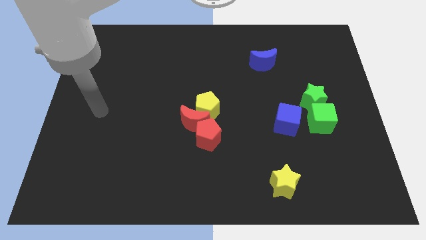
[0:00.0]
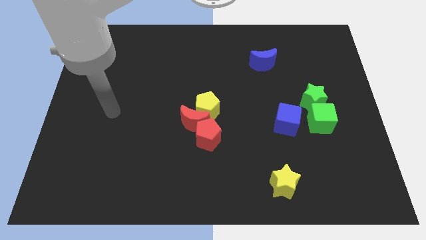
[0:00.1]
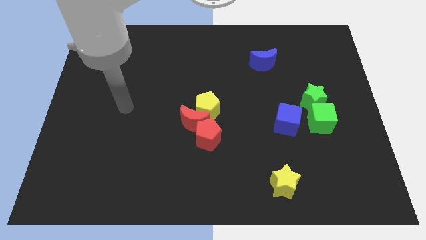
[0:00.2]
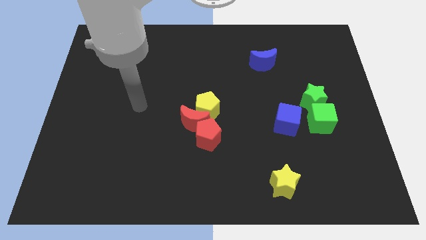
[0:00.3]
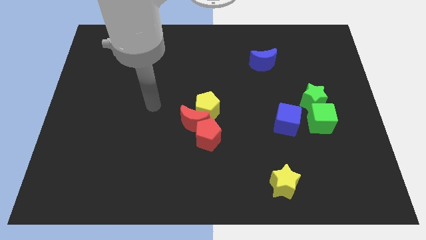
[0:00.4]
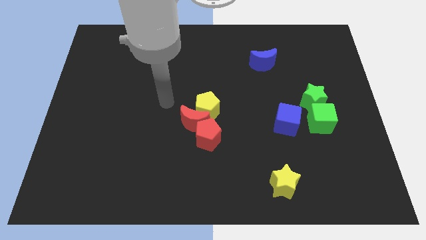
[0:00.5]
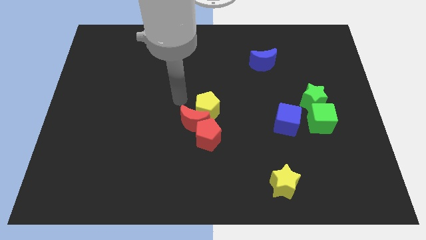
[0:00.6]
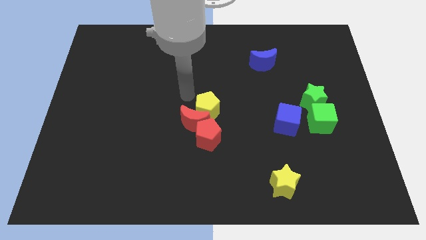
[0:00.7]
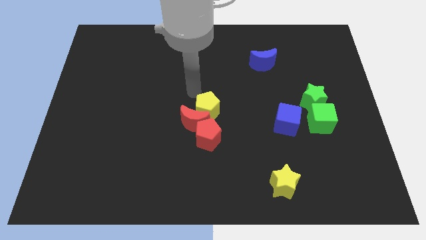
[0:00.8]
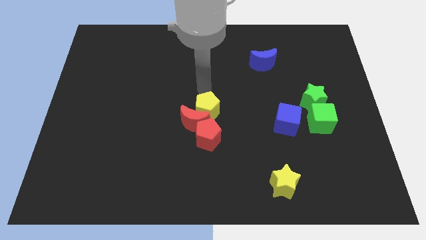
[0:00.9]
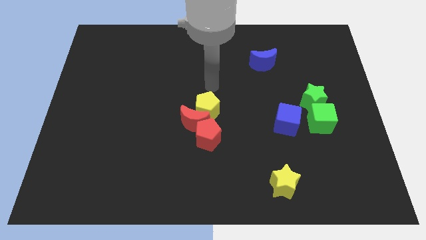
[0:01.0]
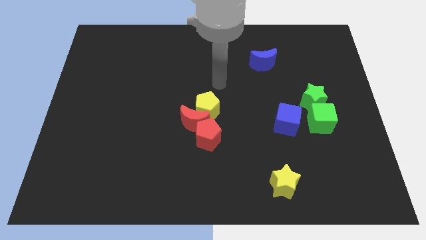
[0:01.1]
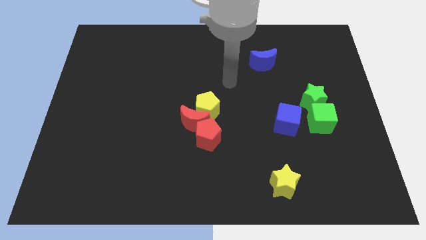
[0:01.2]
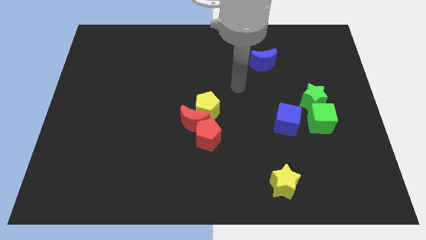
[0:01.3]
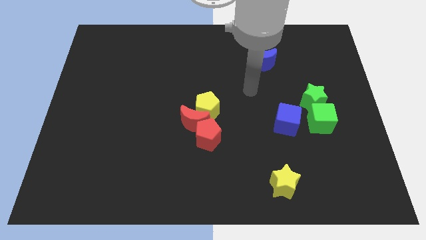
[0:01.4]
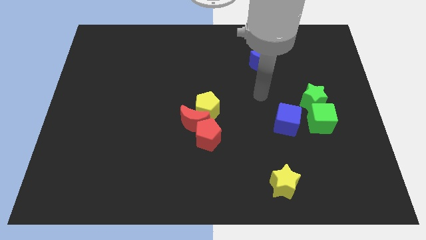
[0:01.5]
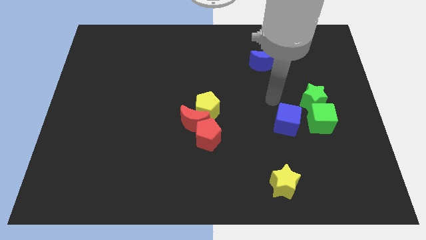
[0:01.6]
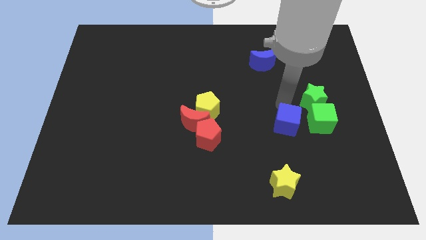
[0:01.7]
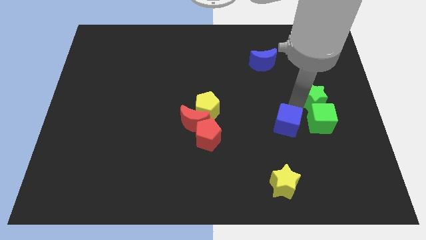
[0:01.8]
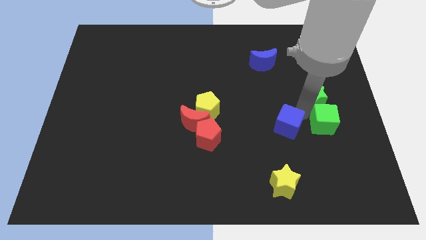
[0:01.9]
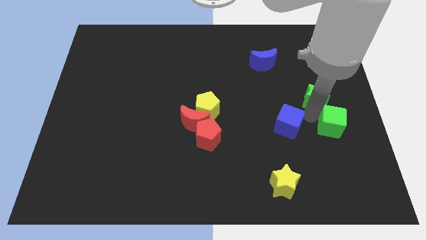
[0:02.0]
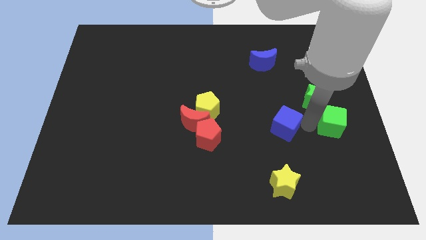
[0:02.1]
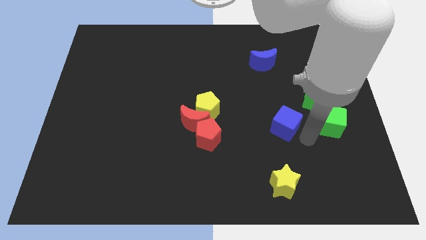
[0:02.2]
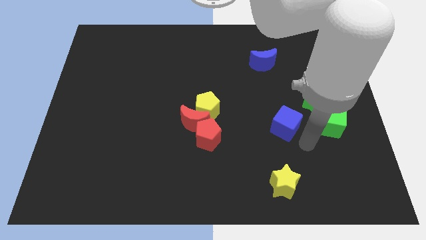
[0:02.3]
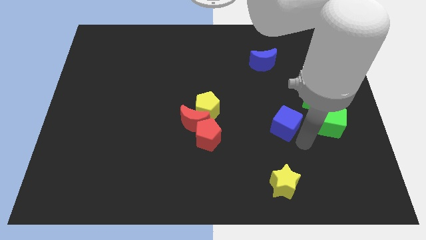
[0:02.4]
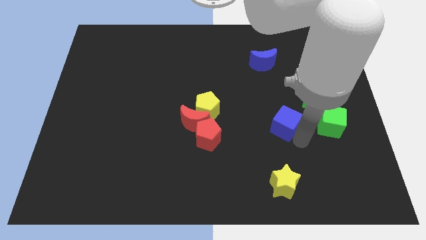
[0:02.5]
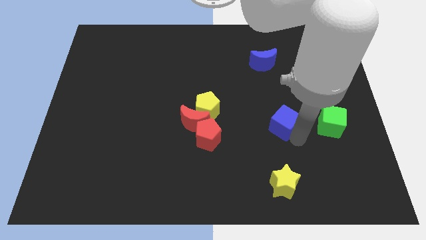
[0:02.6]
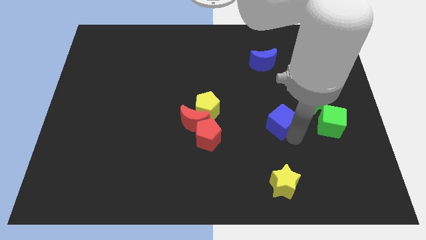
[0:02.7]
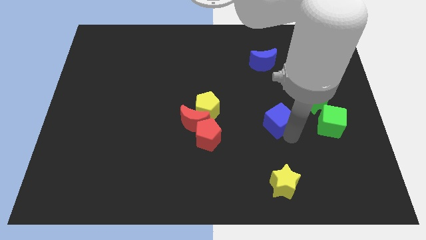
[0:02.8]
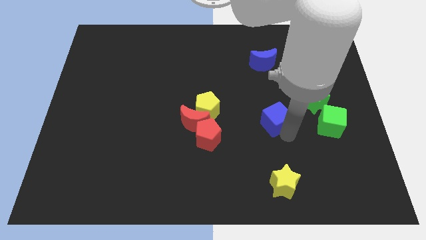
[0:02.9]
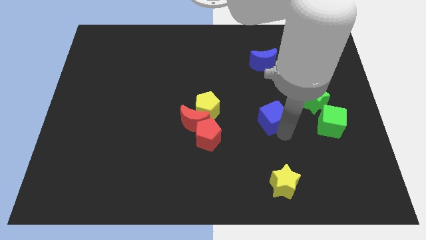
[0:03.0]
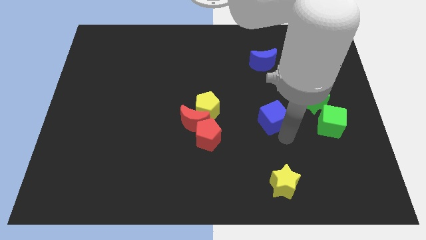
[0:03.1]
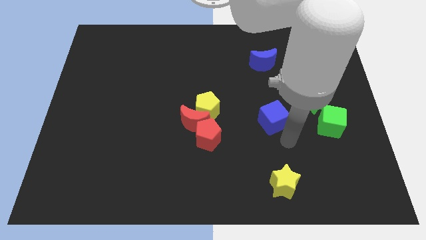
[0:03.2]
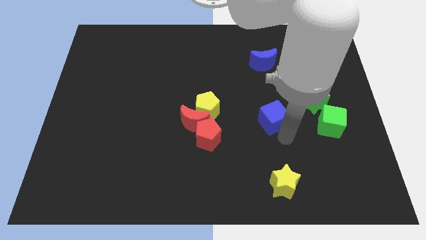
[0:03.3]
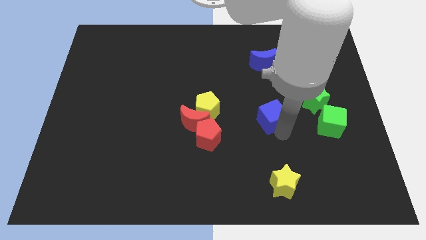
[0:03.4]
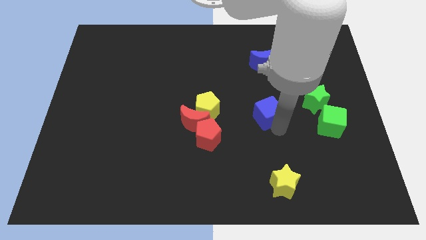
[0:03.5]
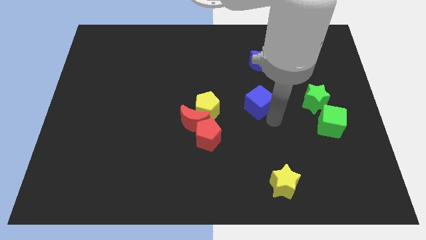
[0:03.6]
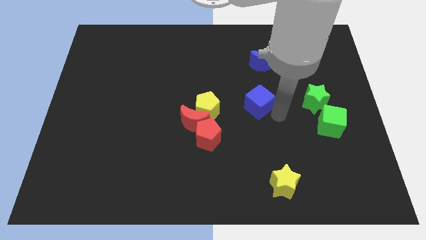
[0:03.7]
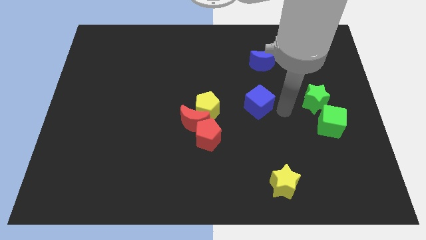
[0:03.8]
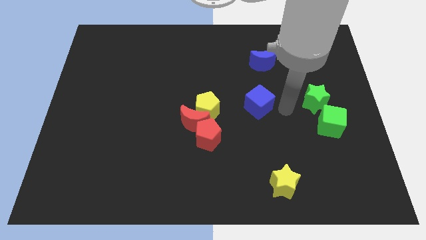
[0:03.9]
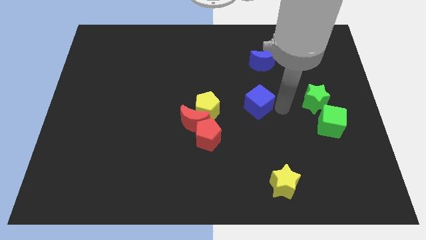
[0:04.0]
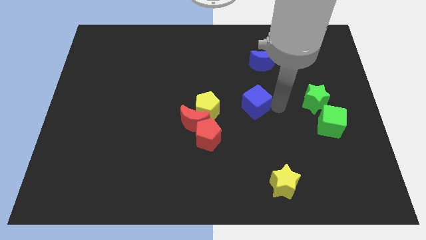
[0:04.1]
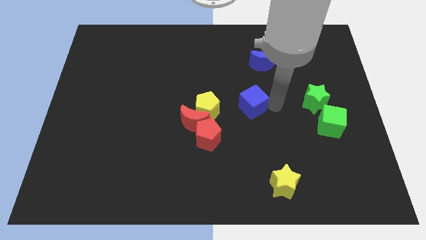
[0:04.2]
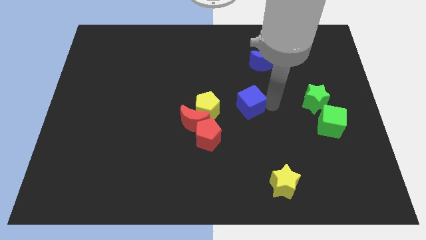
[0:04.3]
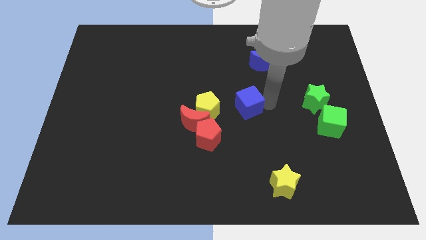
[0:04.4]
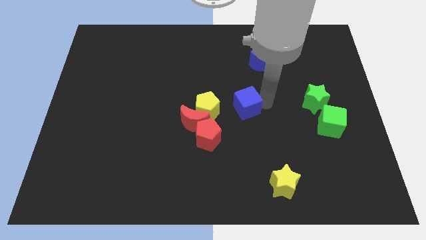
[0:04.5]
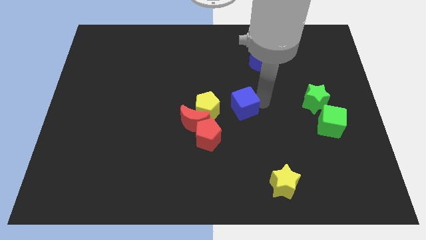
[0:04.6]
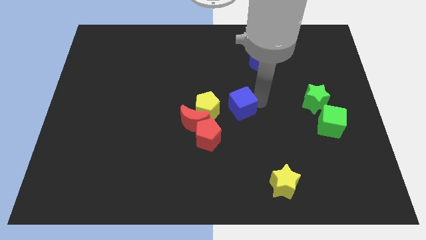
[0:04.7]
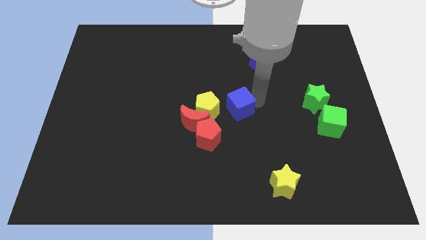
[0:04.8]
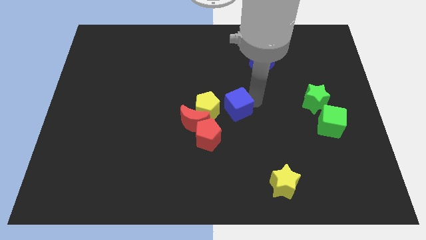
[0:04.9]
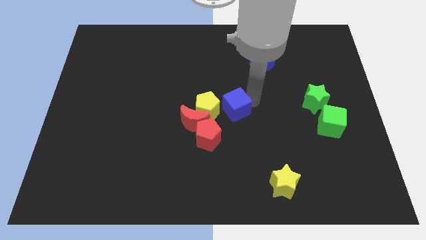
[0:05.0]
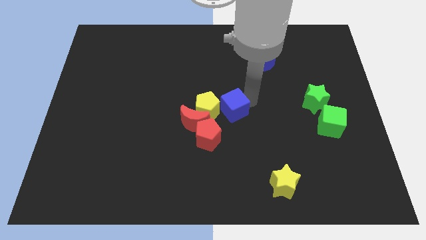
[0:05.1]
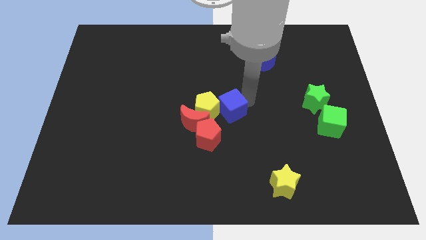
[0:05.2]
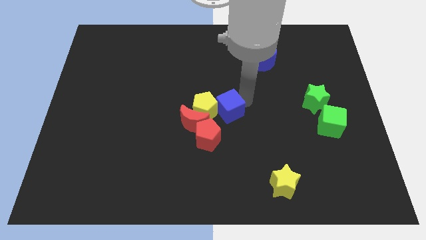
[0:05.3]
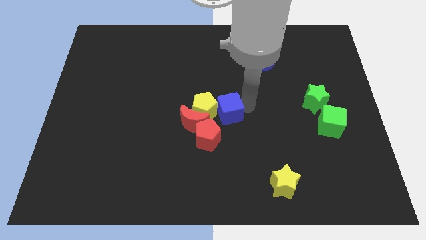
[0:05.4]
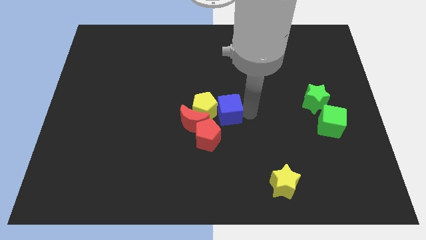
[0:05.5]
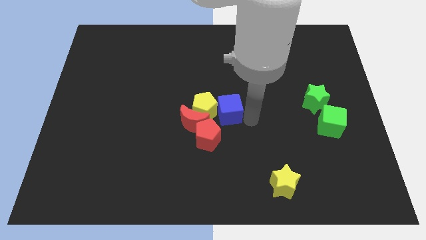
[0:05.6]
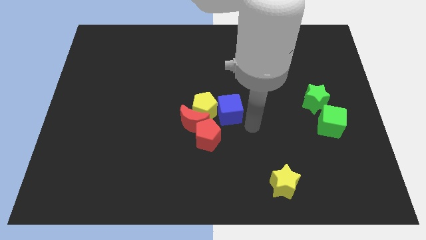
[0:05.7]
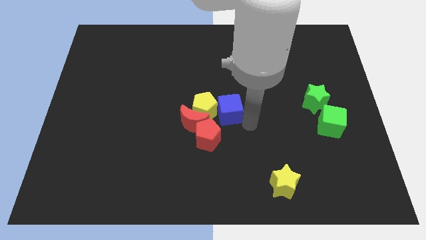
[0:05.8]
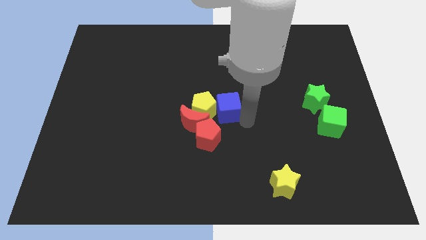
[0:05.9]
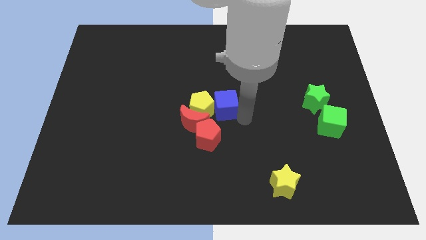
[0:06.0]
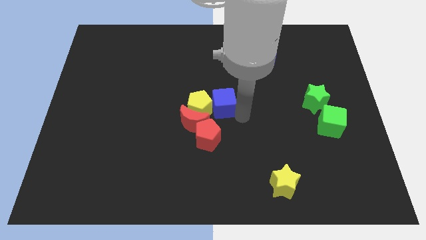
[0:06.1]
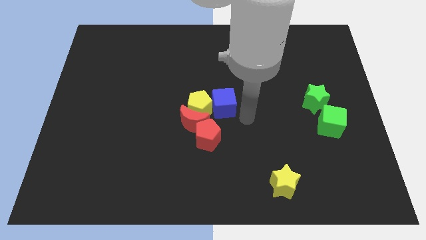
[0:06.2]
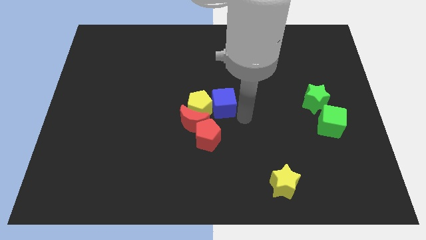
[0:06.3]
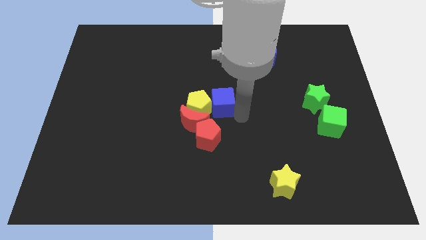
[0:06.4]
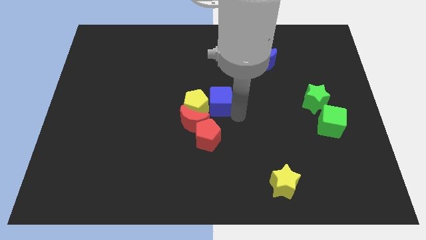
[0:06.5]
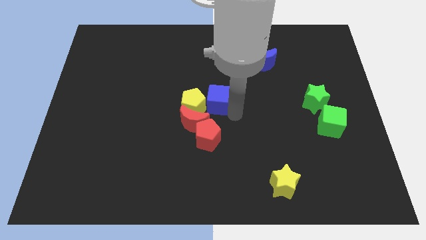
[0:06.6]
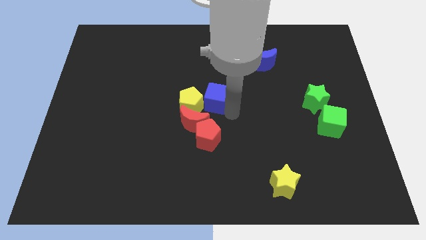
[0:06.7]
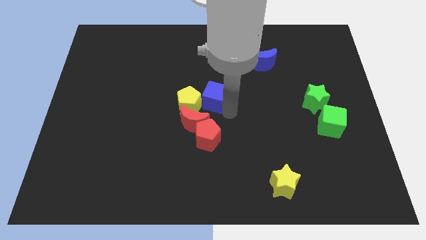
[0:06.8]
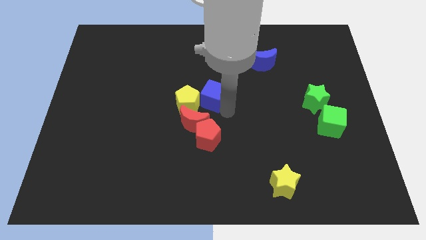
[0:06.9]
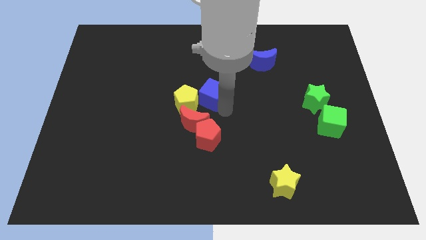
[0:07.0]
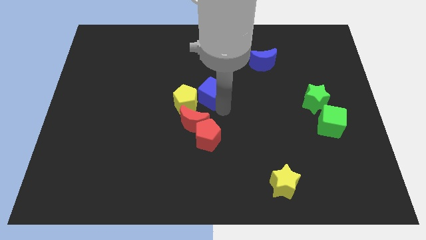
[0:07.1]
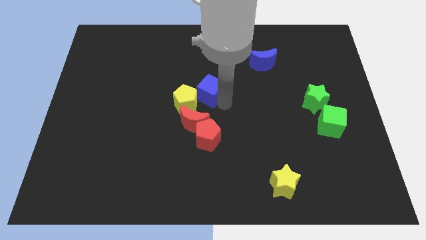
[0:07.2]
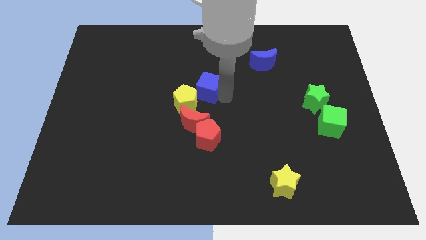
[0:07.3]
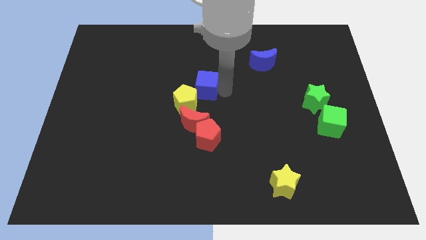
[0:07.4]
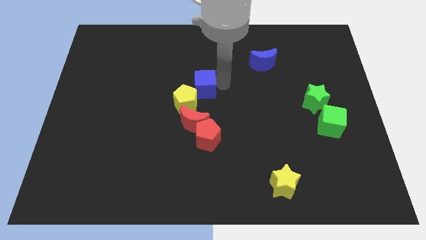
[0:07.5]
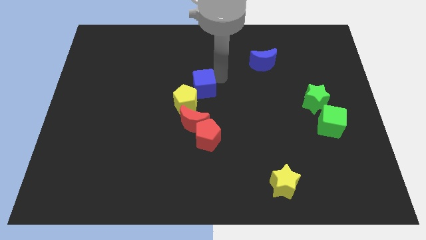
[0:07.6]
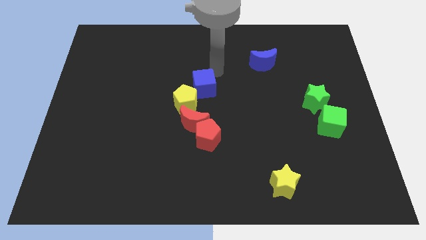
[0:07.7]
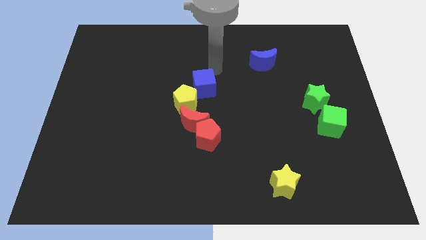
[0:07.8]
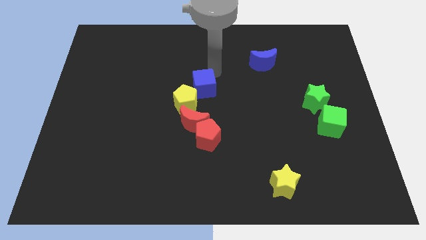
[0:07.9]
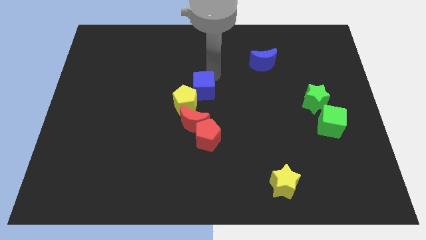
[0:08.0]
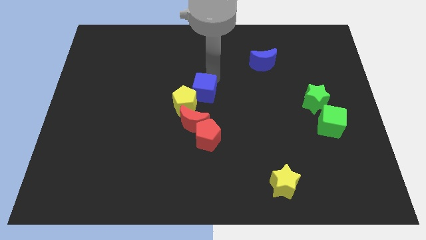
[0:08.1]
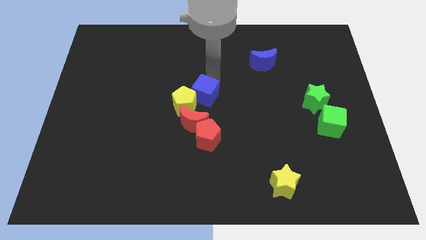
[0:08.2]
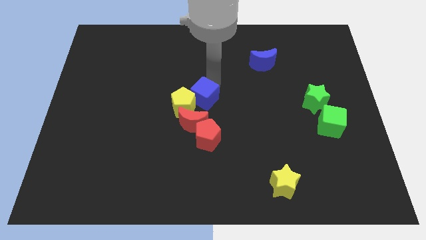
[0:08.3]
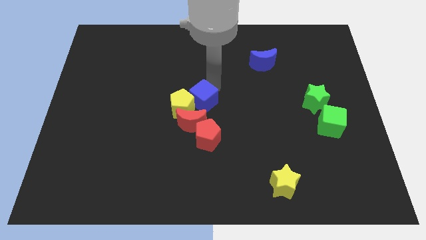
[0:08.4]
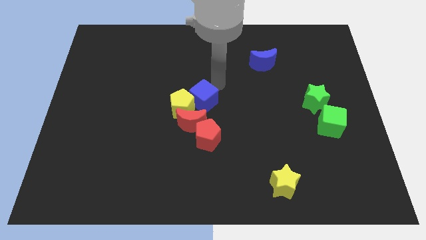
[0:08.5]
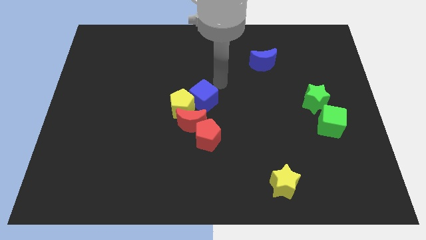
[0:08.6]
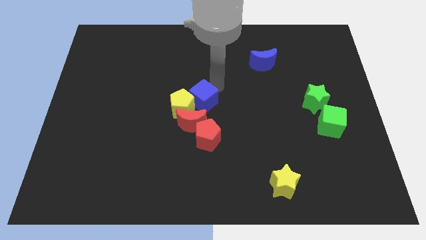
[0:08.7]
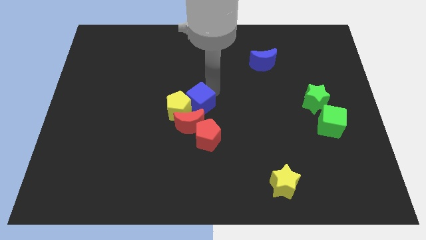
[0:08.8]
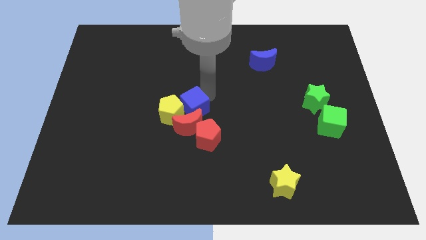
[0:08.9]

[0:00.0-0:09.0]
slide the blue cube diagonally up and to the left of the red pentagon
